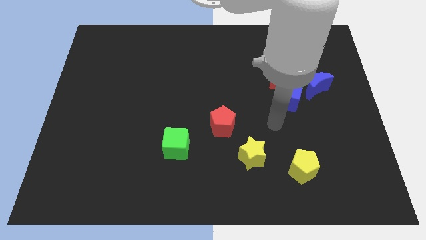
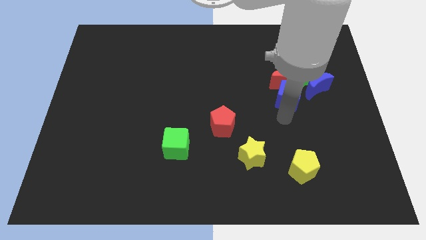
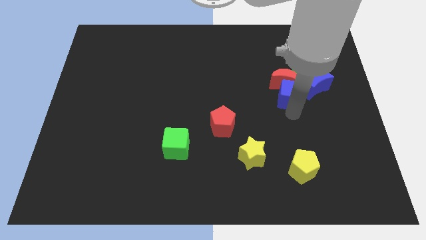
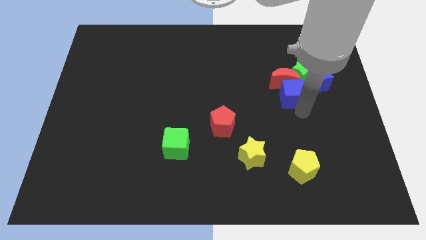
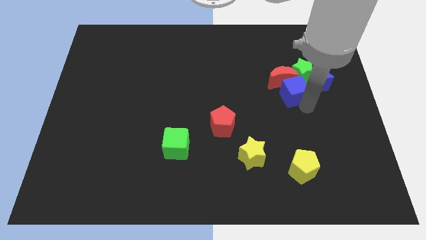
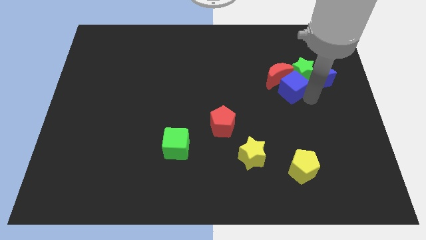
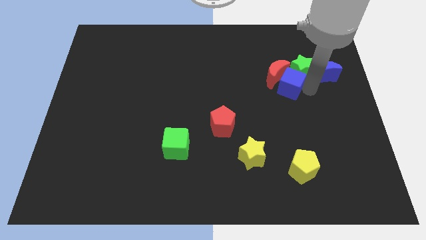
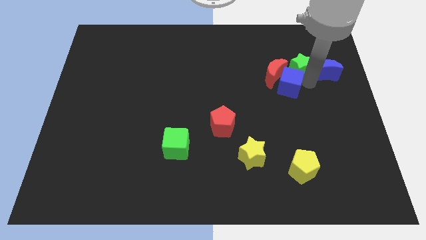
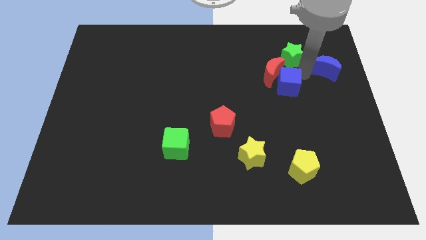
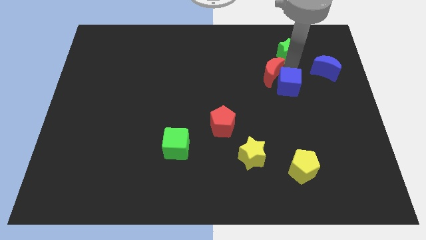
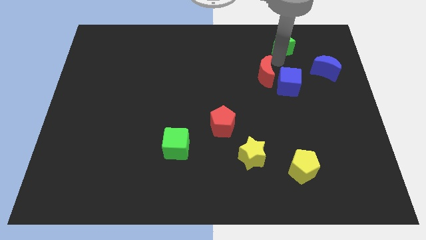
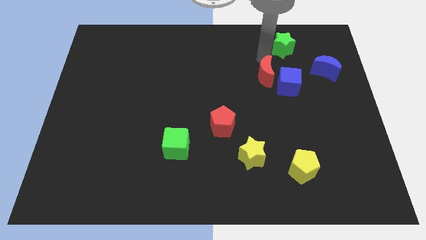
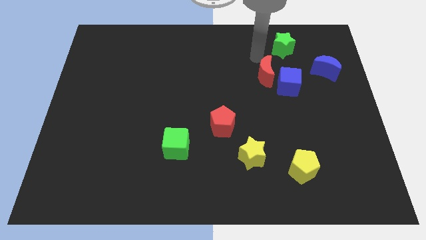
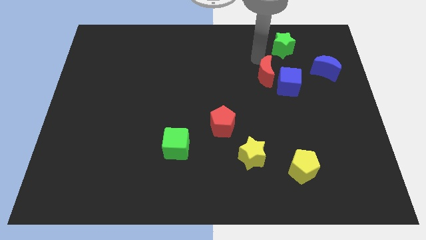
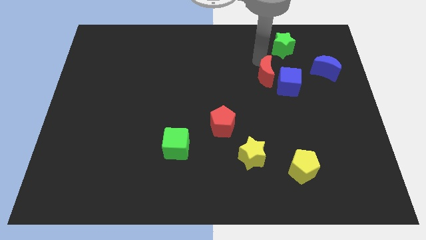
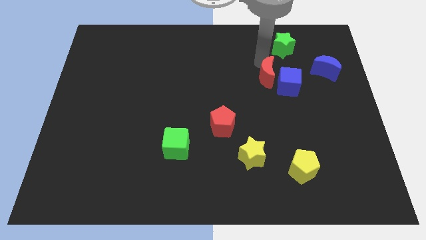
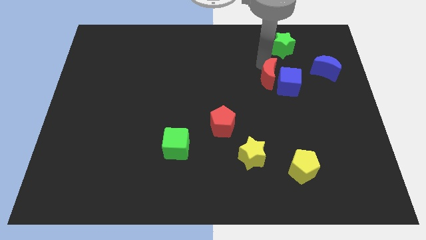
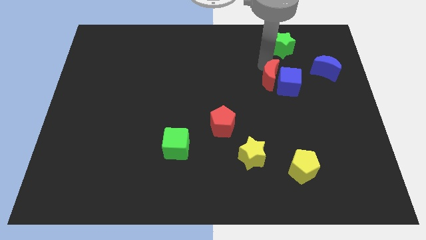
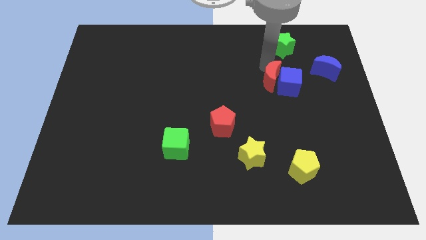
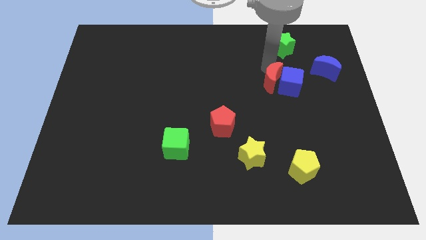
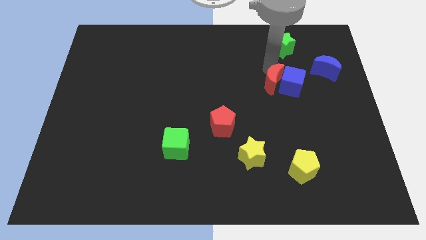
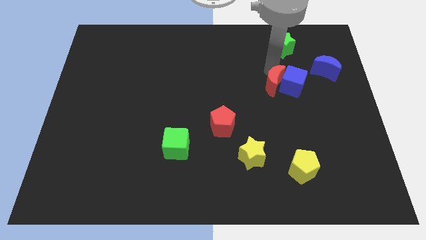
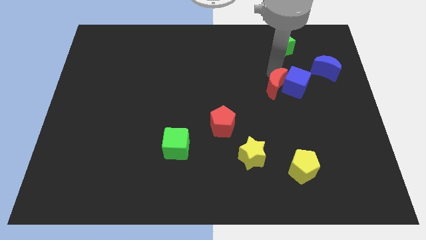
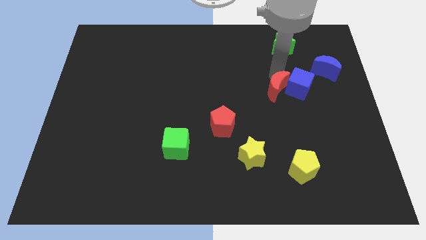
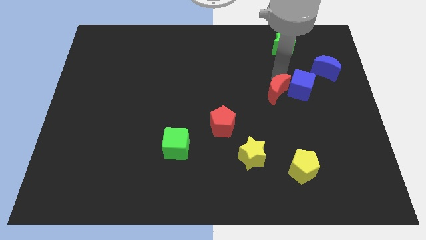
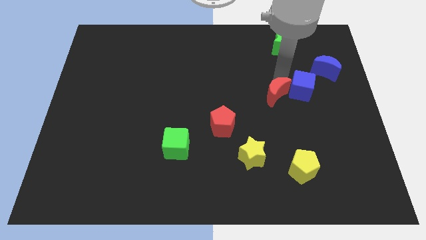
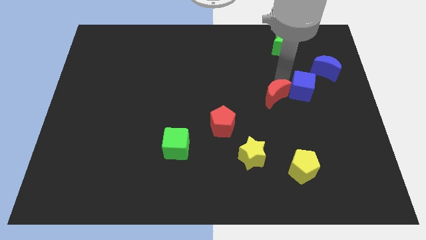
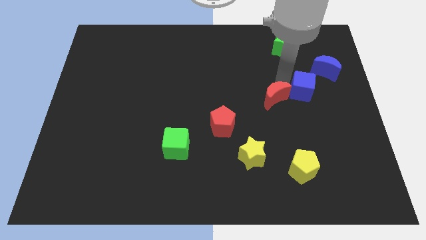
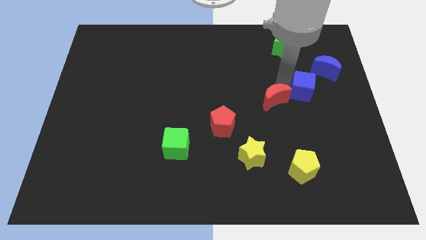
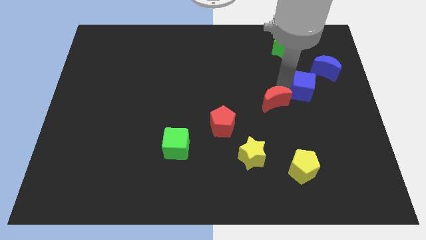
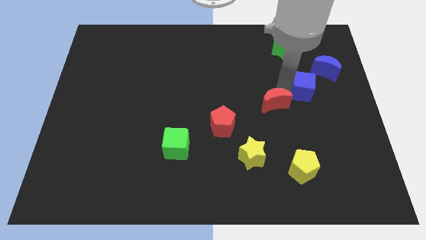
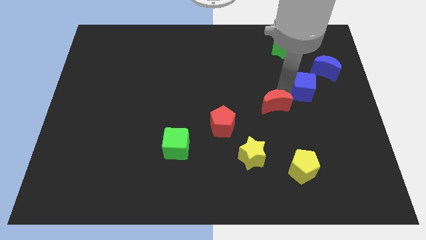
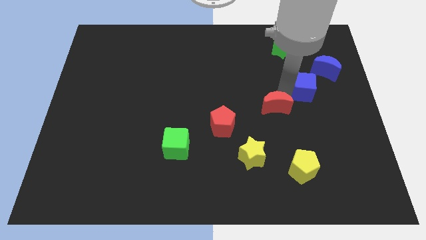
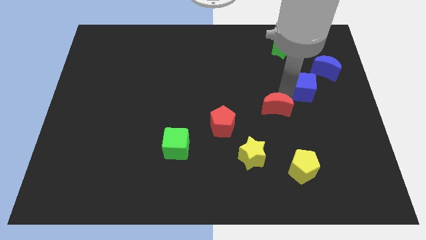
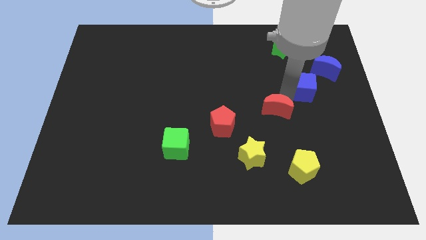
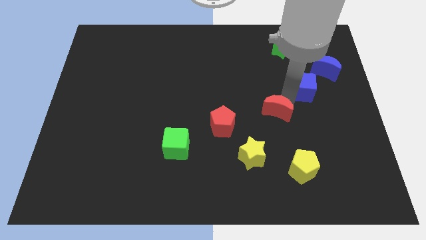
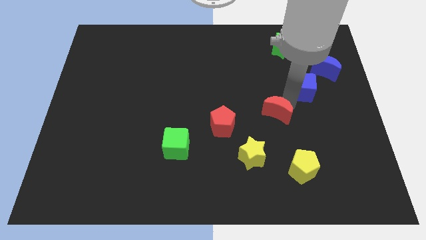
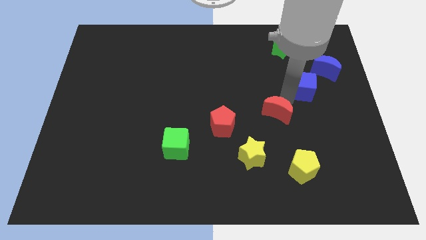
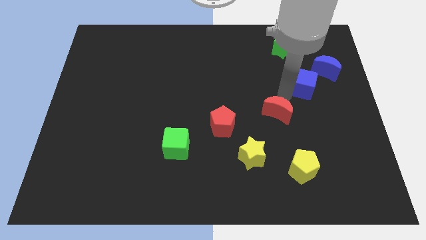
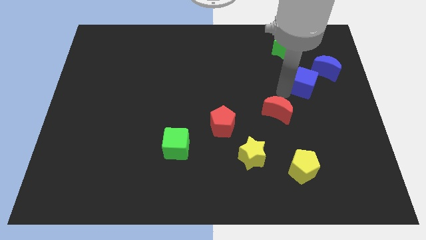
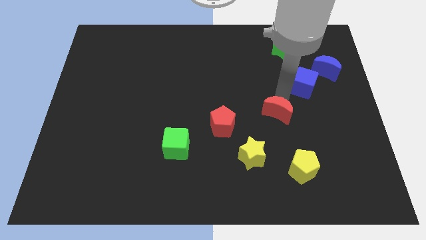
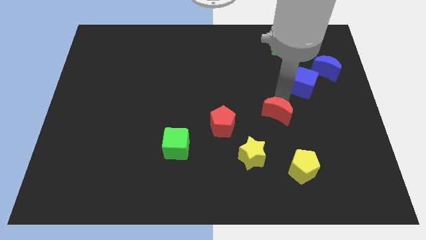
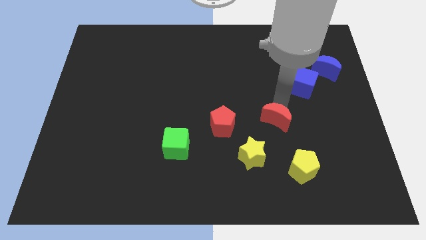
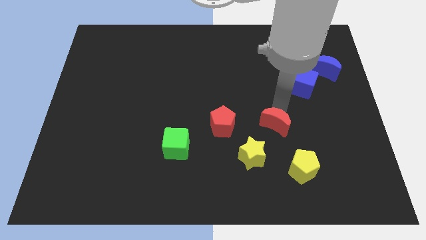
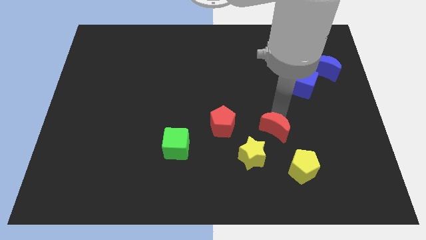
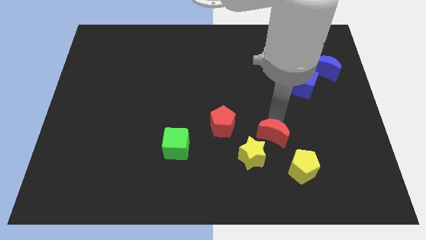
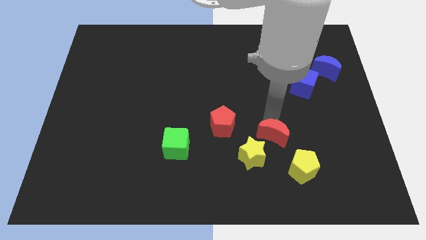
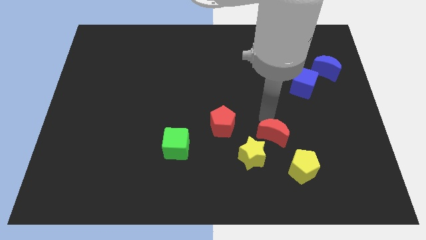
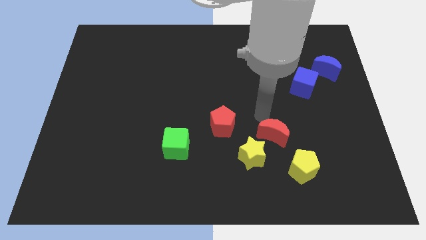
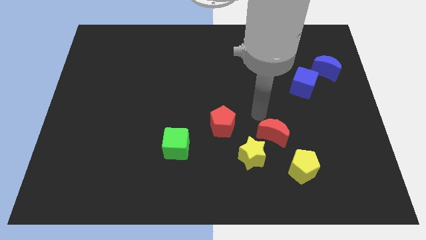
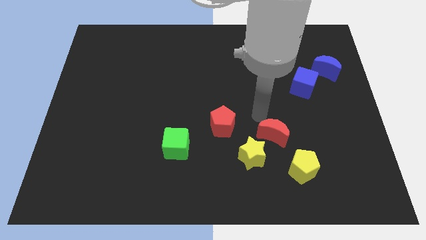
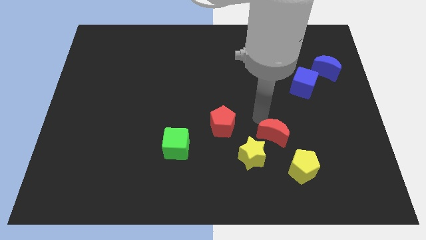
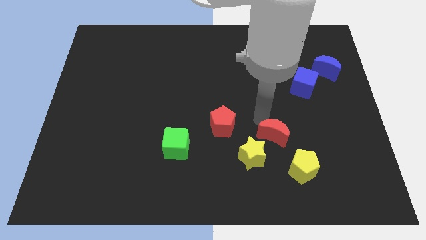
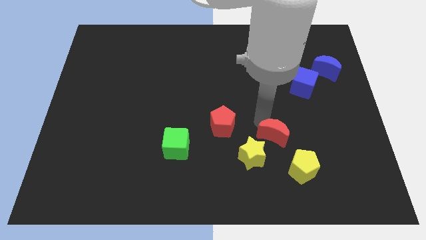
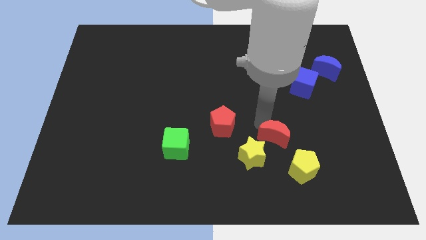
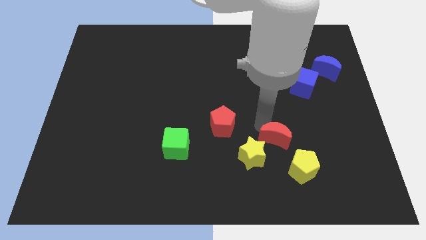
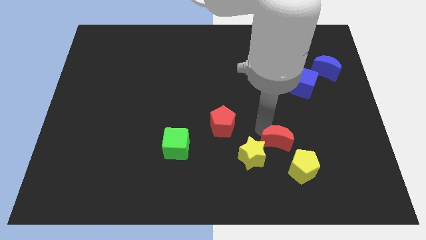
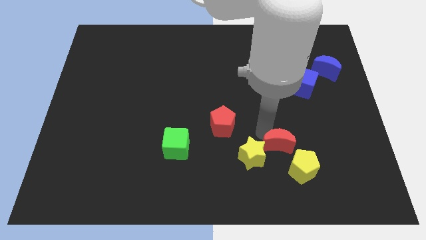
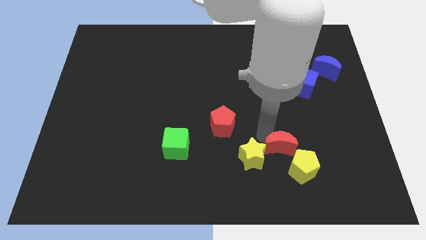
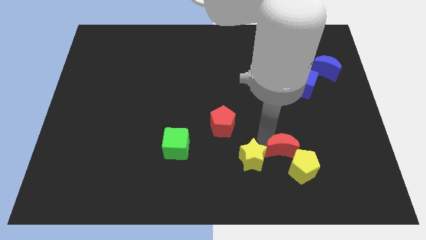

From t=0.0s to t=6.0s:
move the red moon next to the yellow pentagon
